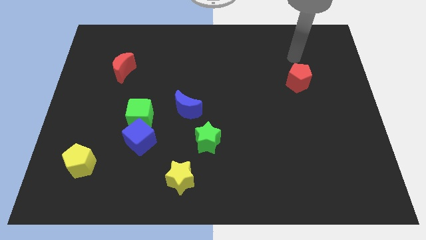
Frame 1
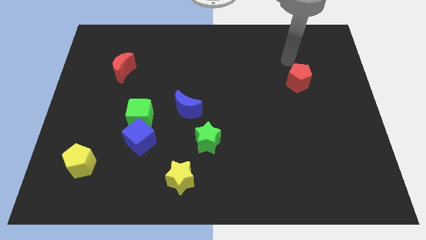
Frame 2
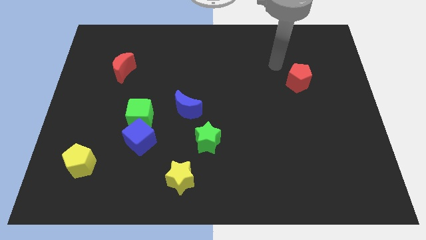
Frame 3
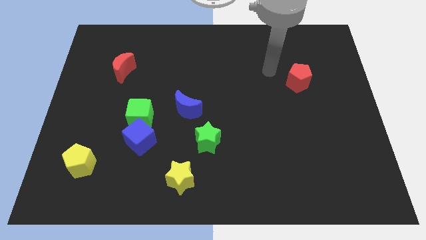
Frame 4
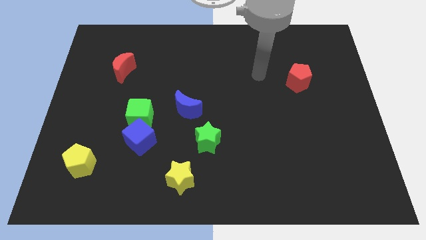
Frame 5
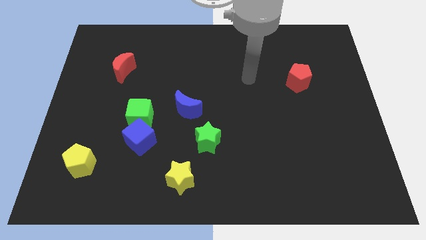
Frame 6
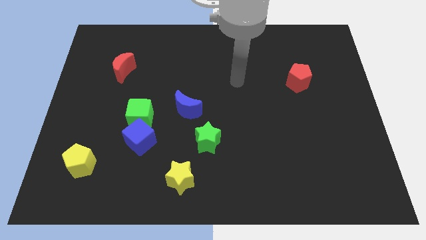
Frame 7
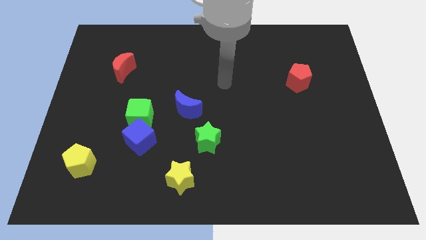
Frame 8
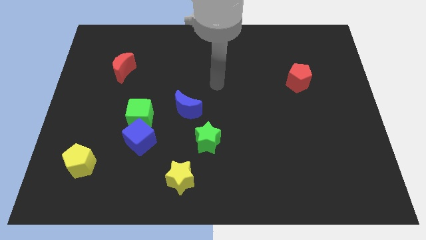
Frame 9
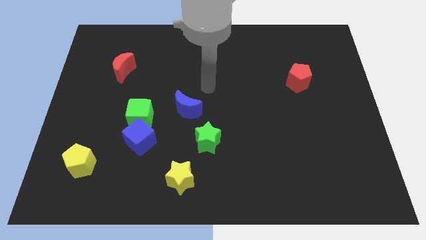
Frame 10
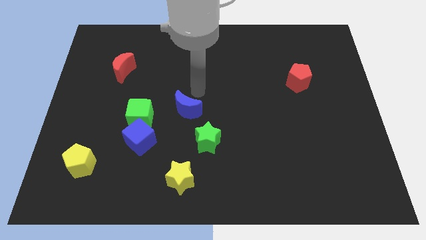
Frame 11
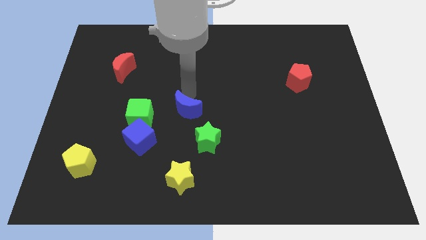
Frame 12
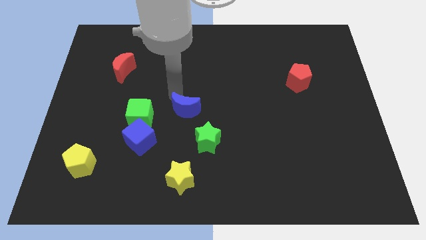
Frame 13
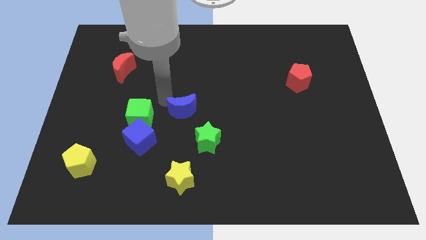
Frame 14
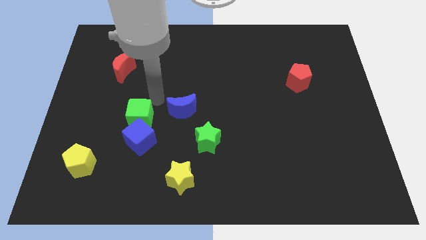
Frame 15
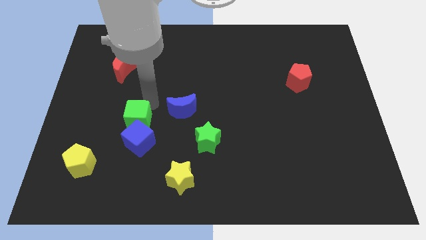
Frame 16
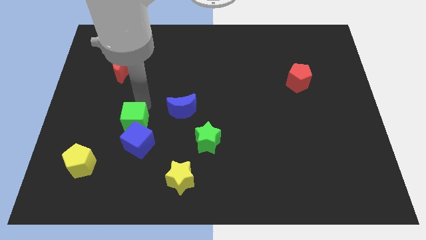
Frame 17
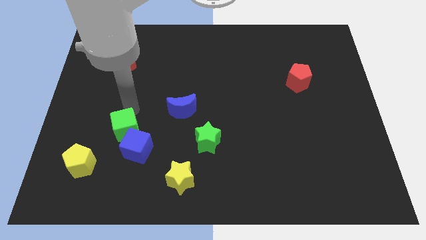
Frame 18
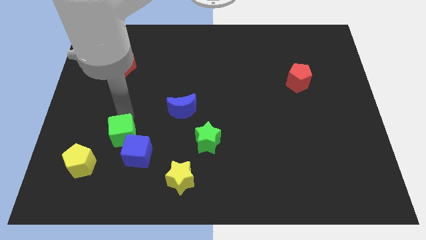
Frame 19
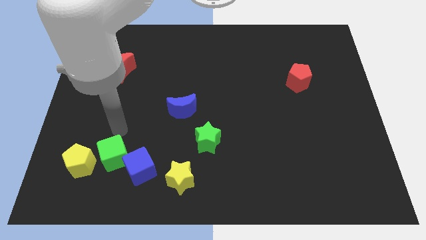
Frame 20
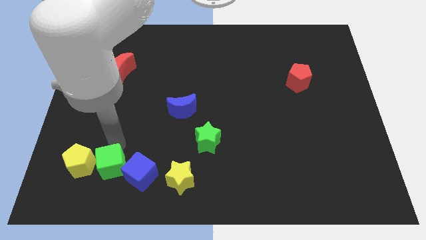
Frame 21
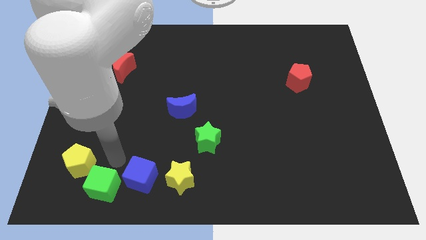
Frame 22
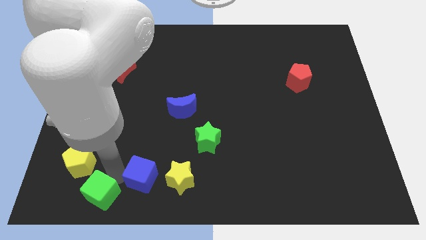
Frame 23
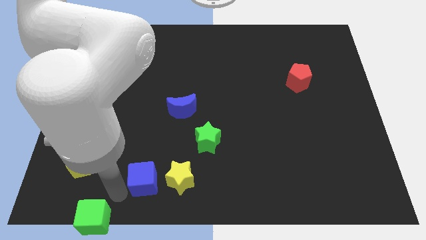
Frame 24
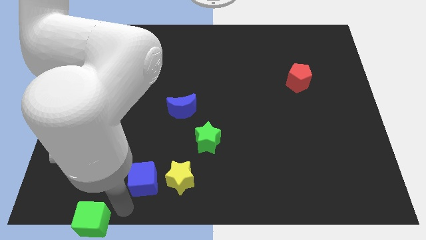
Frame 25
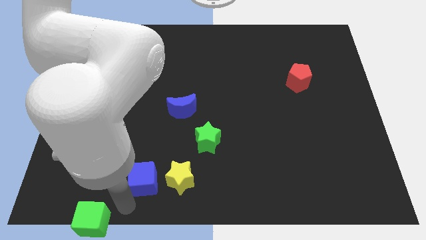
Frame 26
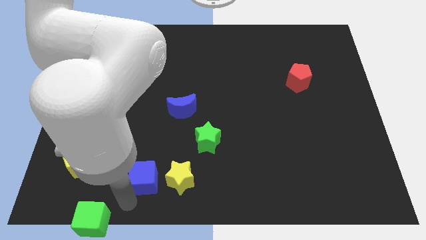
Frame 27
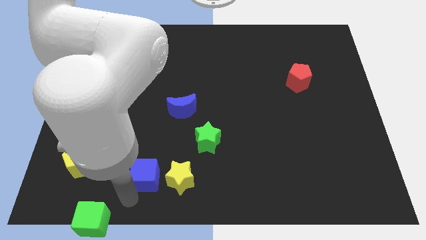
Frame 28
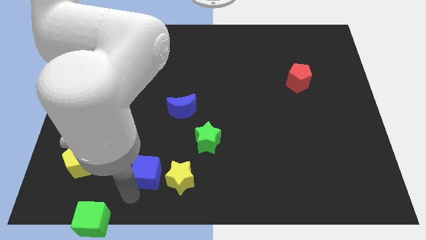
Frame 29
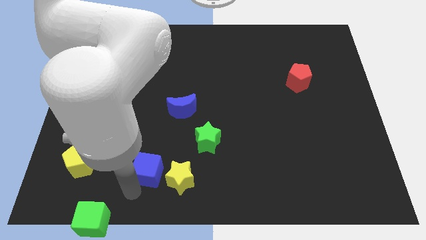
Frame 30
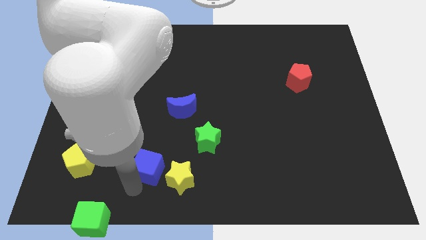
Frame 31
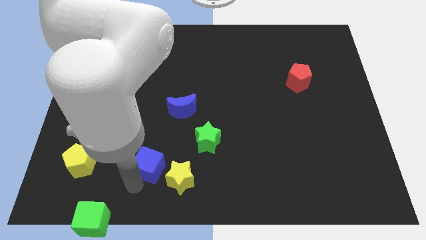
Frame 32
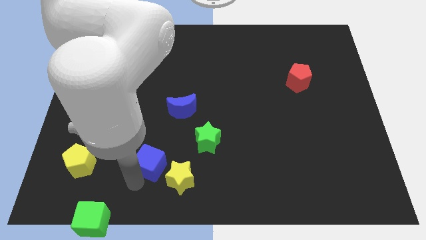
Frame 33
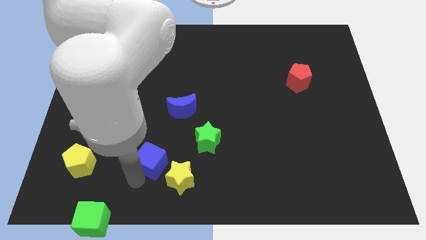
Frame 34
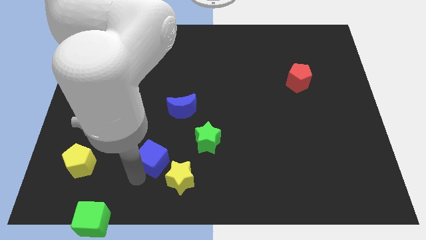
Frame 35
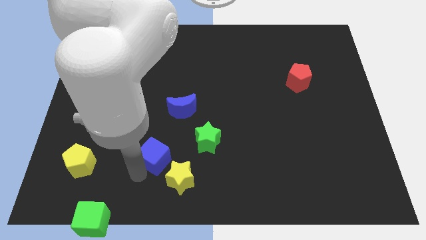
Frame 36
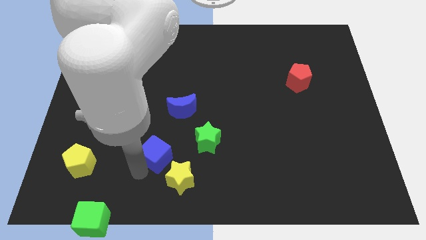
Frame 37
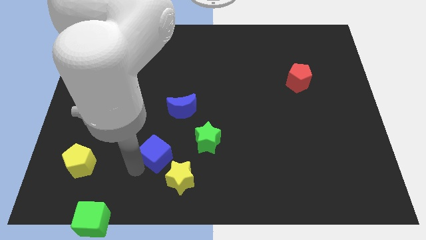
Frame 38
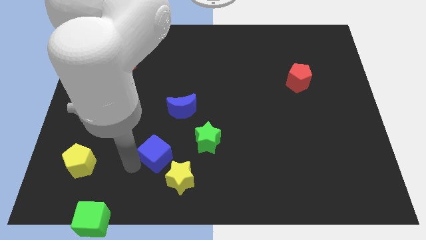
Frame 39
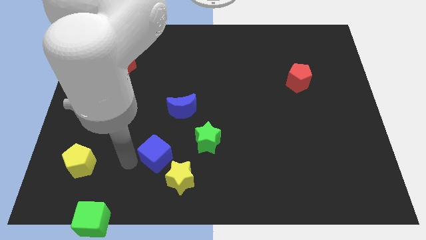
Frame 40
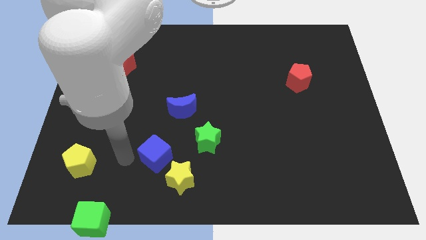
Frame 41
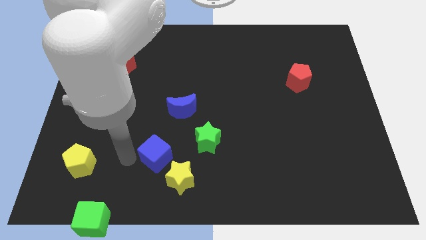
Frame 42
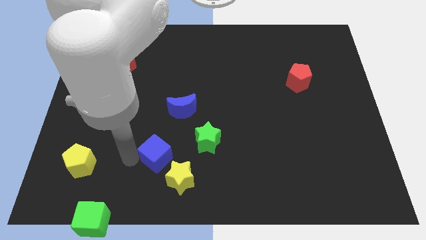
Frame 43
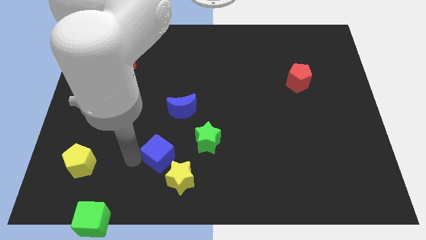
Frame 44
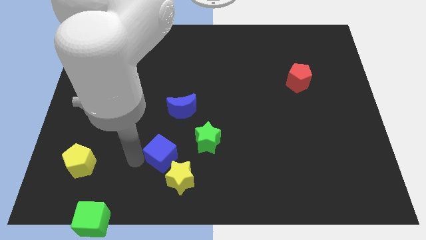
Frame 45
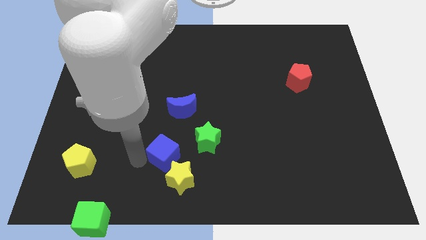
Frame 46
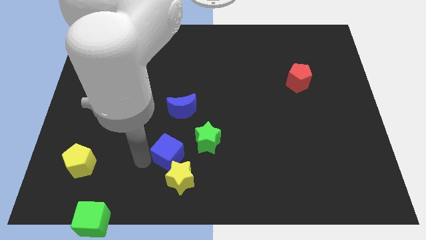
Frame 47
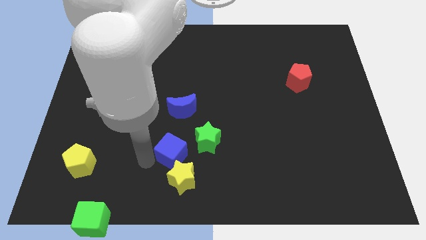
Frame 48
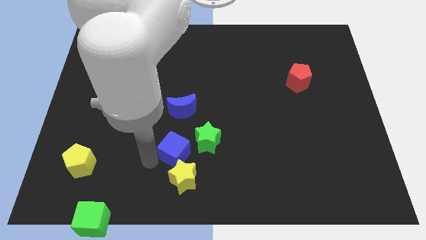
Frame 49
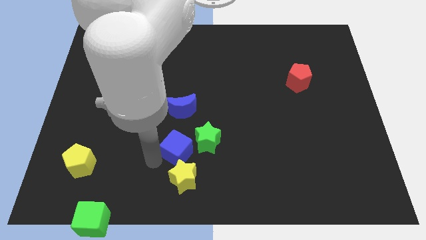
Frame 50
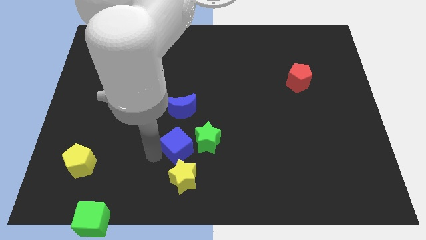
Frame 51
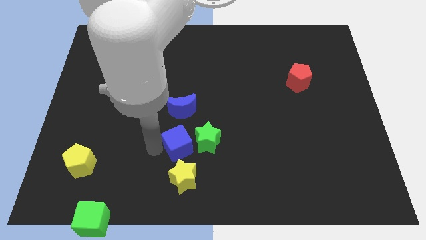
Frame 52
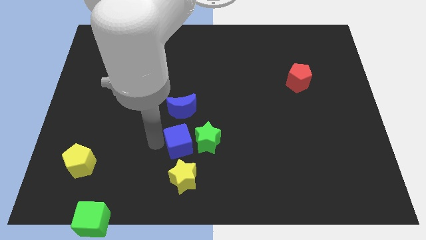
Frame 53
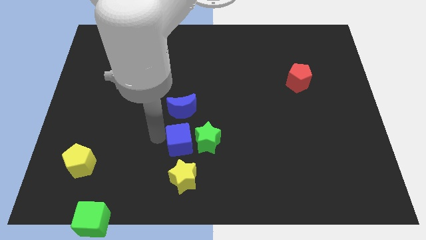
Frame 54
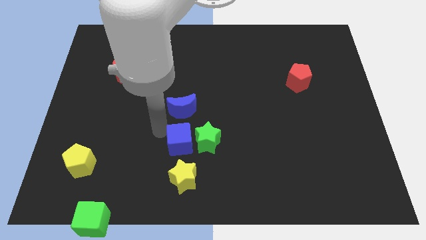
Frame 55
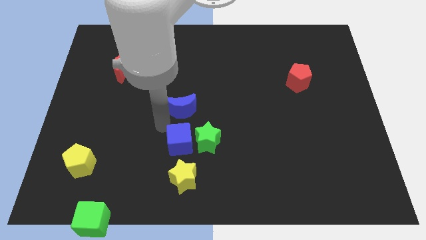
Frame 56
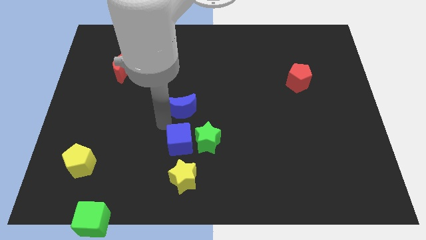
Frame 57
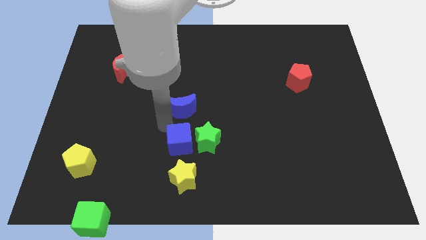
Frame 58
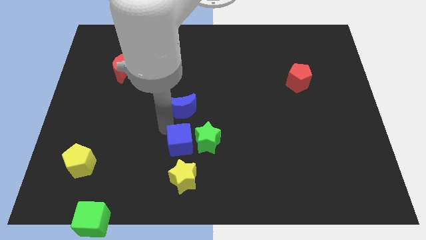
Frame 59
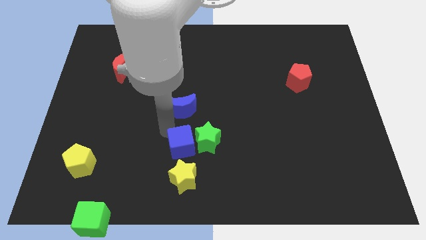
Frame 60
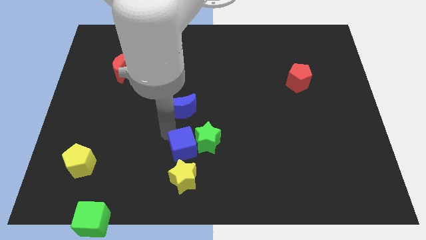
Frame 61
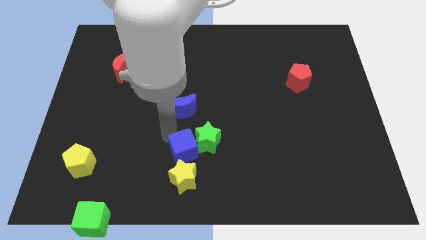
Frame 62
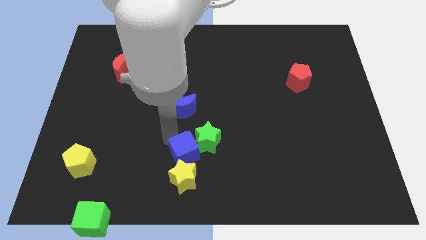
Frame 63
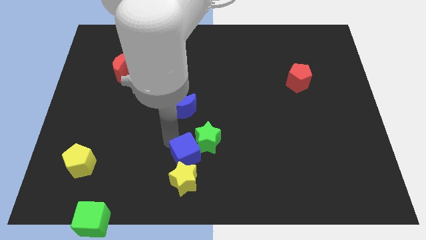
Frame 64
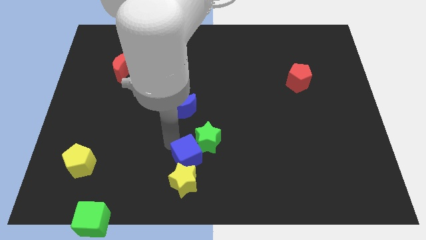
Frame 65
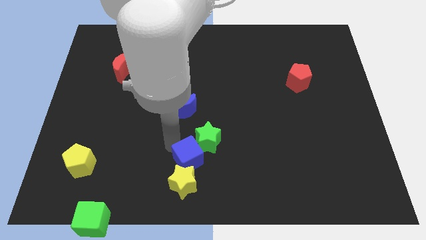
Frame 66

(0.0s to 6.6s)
slide the blue cube to the bottom side
